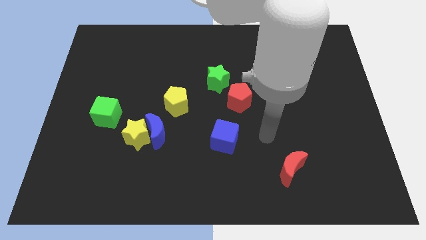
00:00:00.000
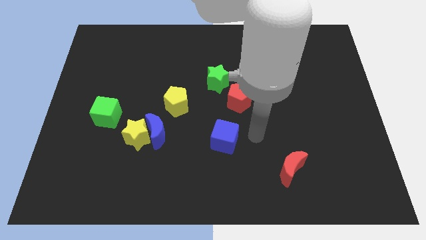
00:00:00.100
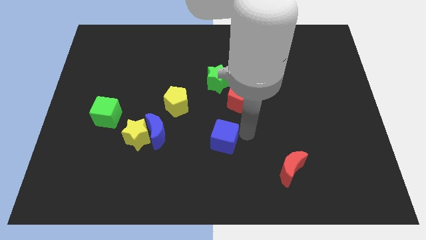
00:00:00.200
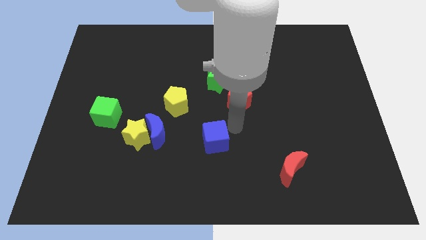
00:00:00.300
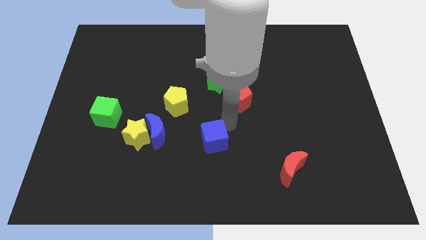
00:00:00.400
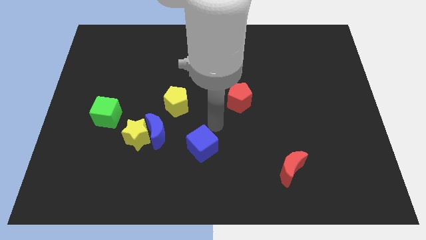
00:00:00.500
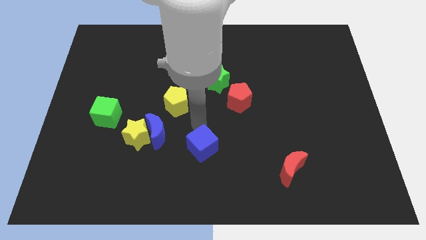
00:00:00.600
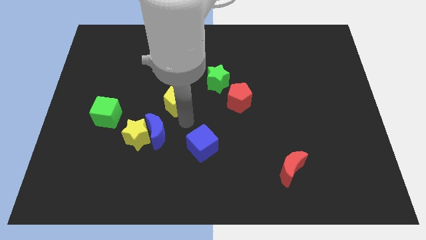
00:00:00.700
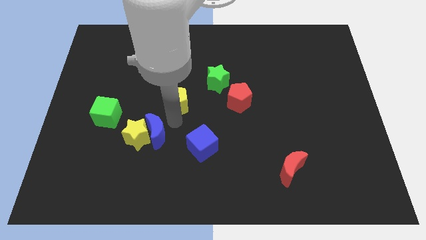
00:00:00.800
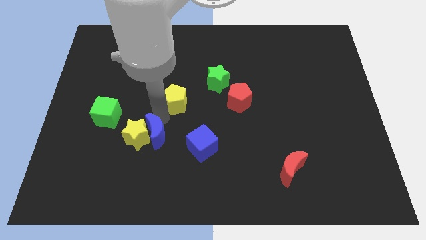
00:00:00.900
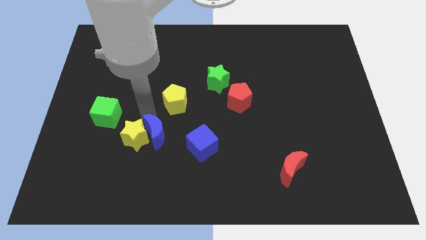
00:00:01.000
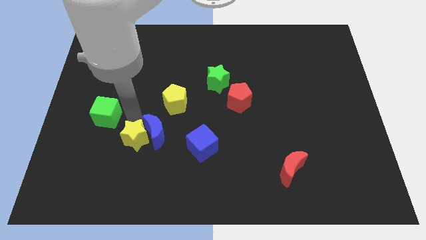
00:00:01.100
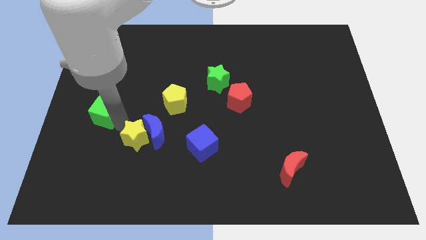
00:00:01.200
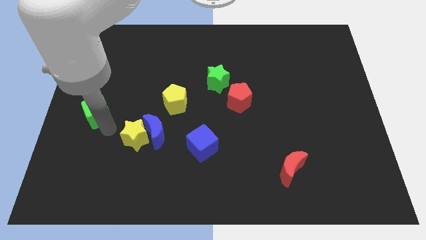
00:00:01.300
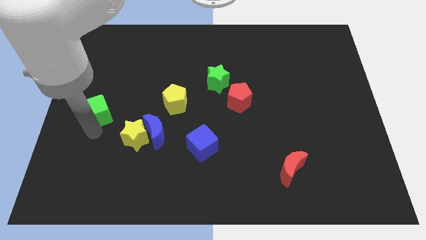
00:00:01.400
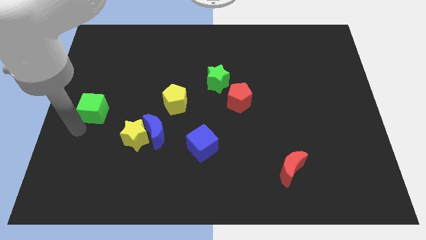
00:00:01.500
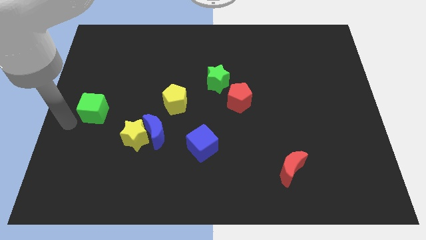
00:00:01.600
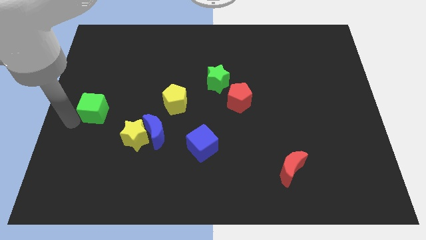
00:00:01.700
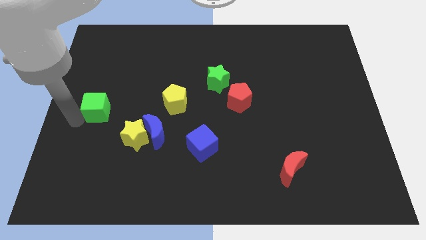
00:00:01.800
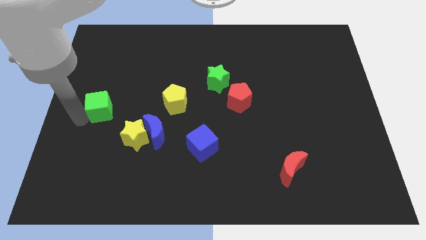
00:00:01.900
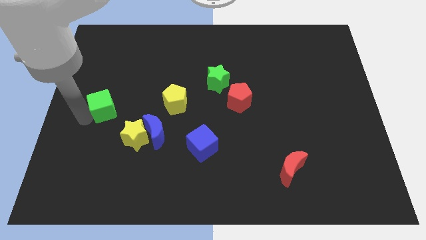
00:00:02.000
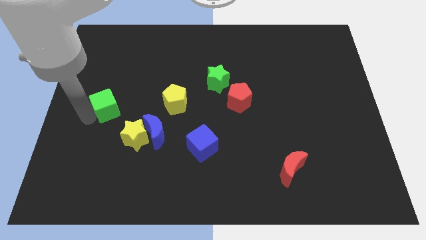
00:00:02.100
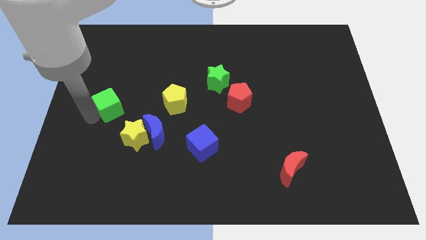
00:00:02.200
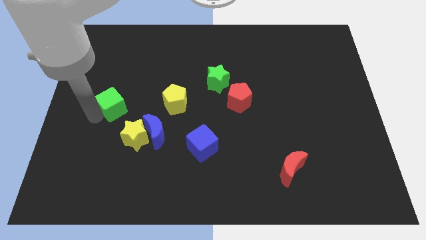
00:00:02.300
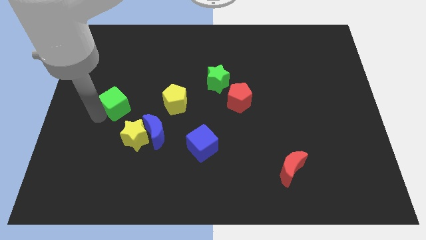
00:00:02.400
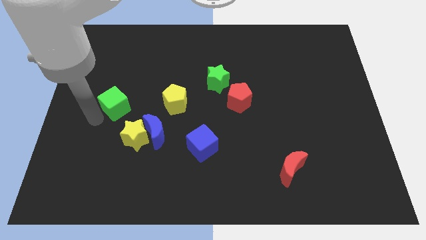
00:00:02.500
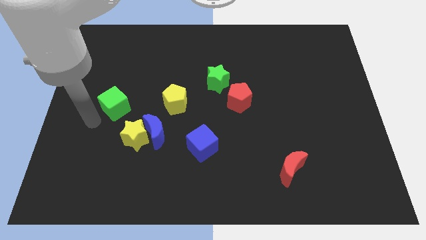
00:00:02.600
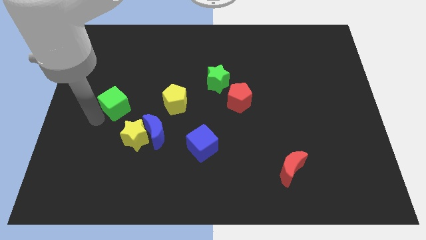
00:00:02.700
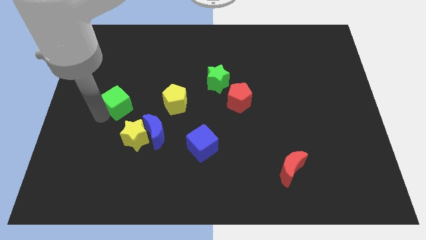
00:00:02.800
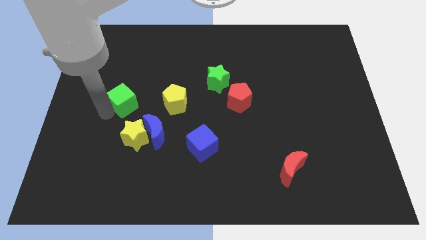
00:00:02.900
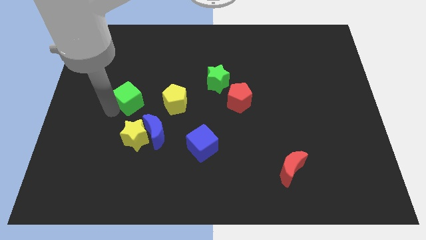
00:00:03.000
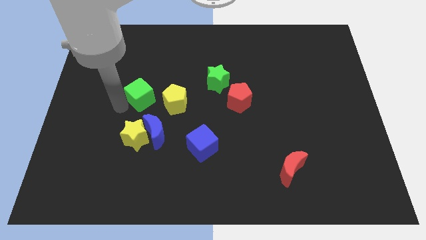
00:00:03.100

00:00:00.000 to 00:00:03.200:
slide the green cube slightly up and right

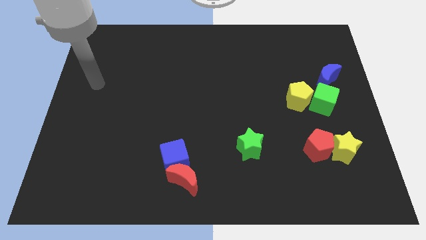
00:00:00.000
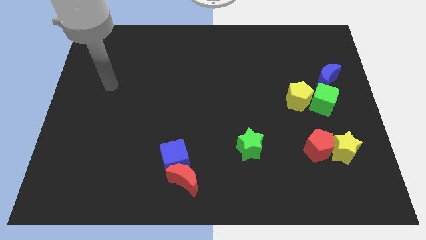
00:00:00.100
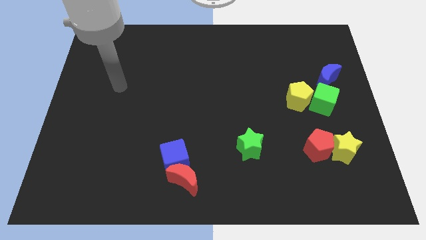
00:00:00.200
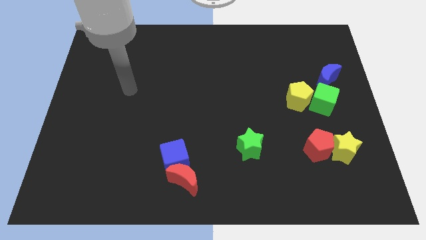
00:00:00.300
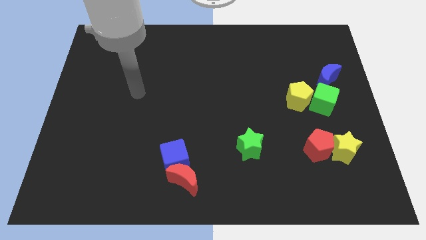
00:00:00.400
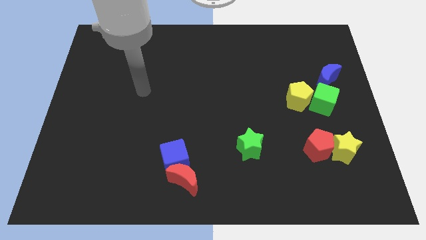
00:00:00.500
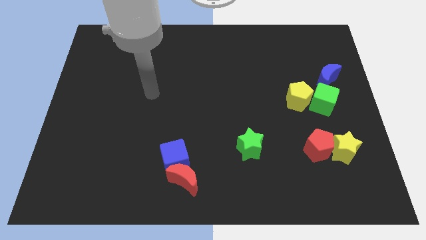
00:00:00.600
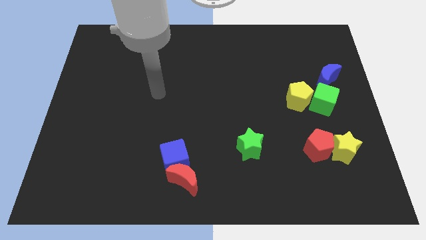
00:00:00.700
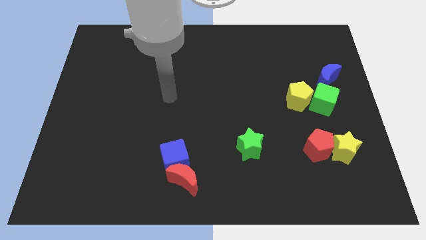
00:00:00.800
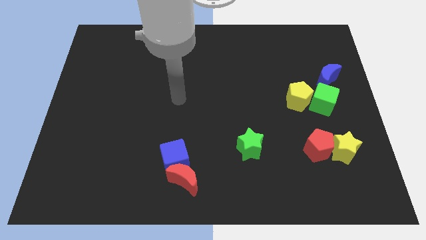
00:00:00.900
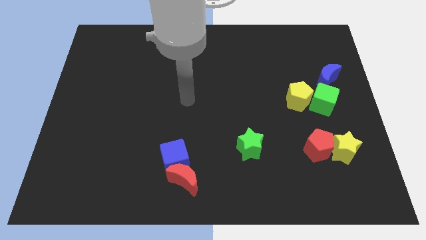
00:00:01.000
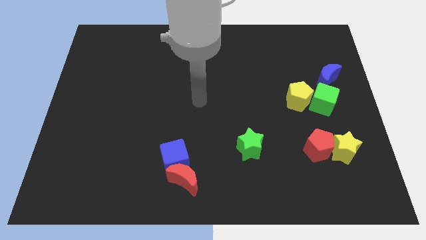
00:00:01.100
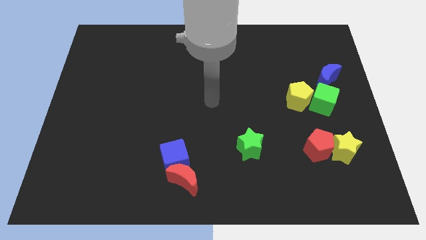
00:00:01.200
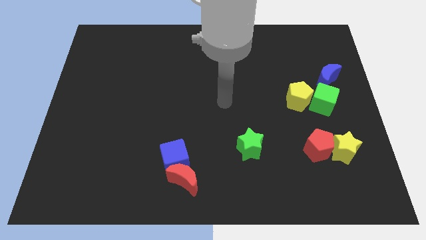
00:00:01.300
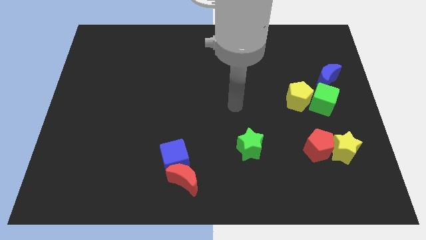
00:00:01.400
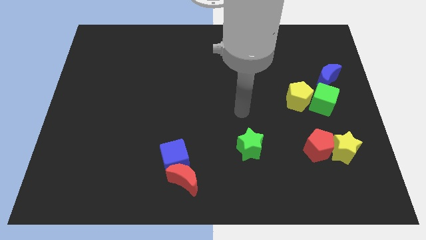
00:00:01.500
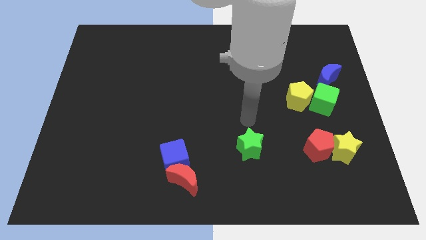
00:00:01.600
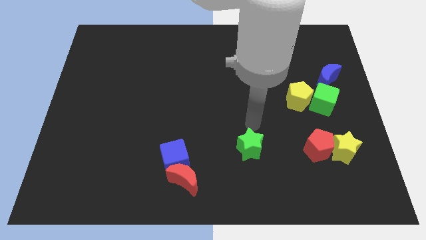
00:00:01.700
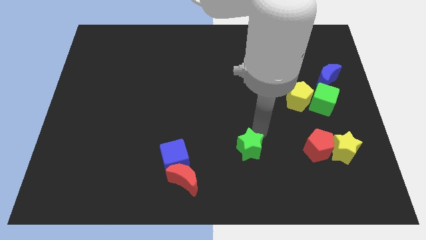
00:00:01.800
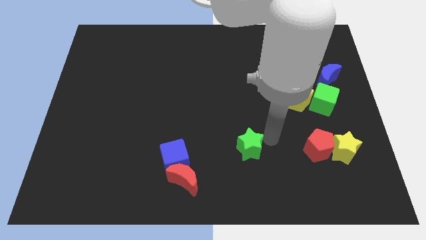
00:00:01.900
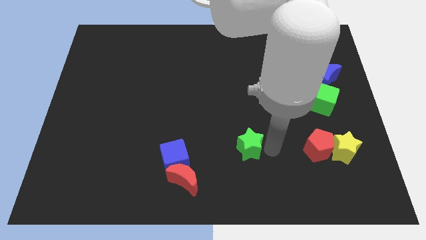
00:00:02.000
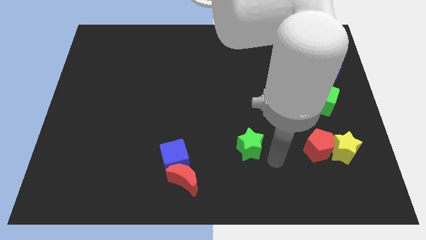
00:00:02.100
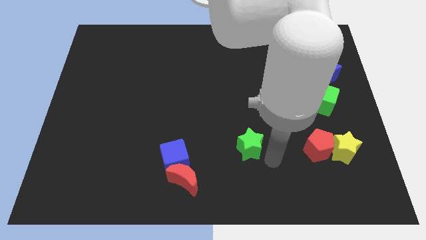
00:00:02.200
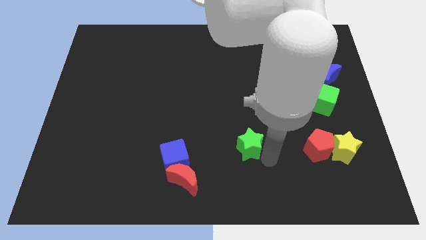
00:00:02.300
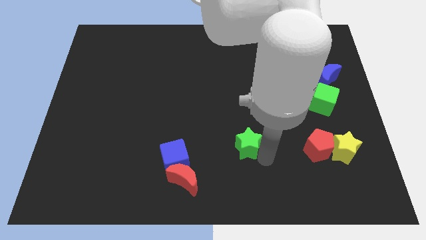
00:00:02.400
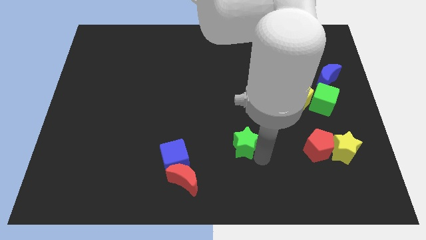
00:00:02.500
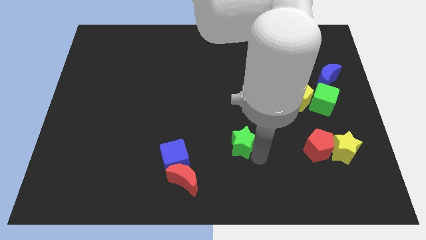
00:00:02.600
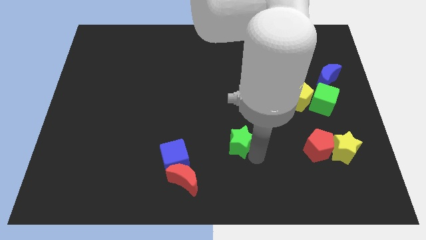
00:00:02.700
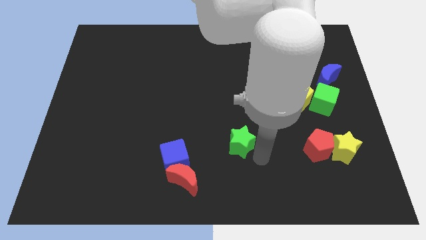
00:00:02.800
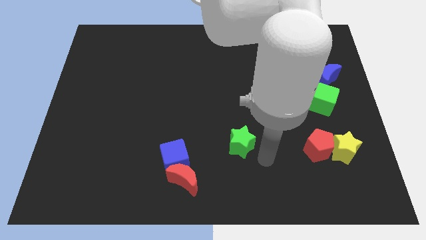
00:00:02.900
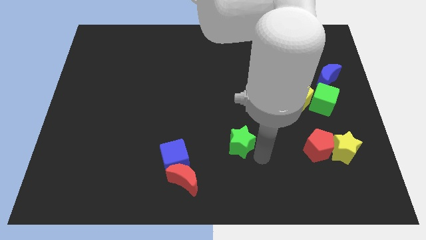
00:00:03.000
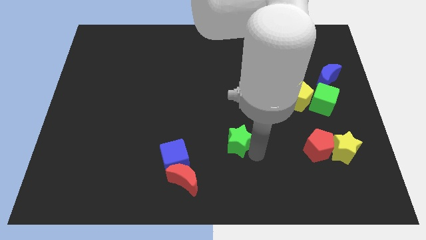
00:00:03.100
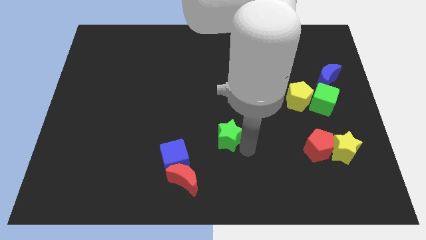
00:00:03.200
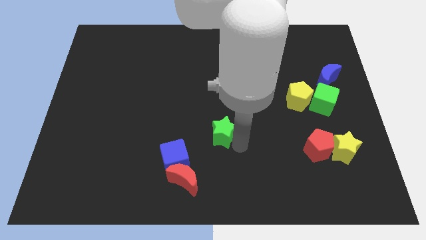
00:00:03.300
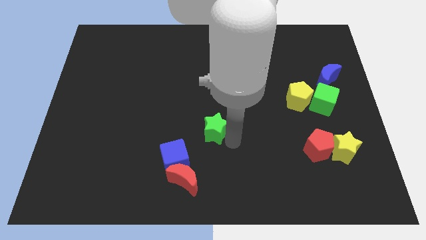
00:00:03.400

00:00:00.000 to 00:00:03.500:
slide the green star slightly upwards and left

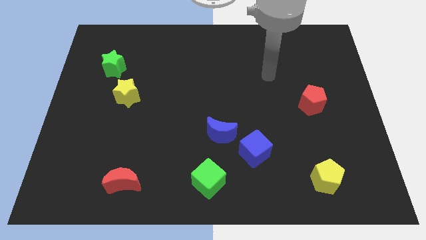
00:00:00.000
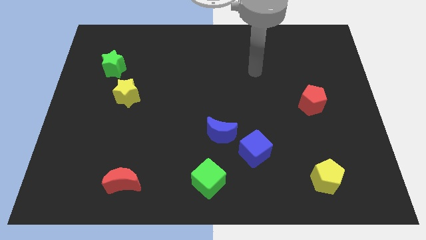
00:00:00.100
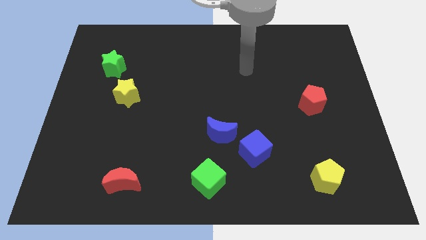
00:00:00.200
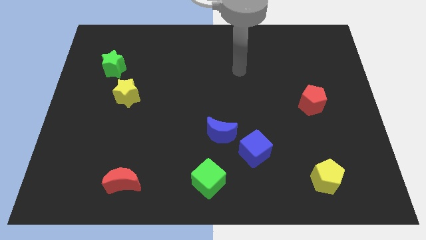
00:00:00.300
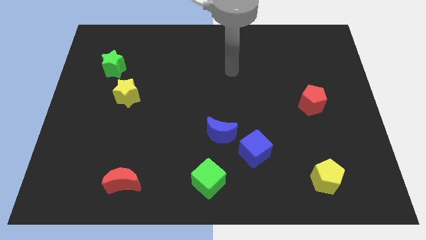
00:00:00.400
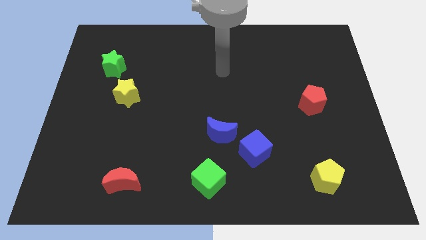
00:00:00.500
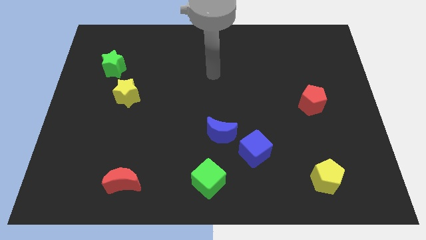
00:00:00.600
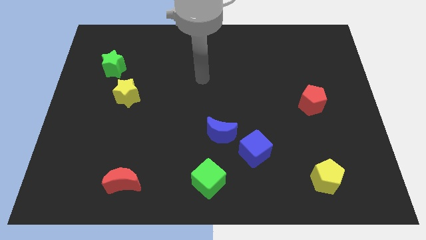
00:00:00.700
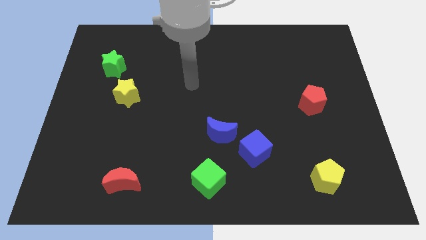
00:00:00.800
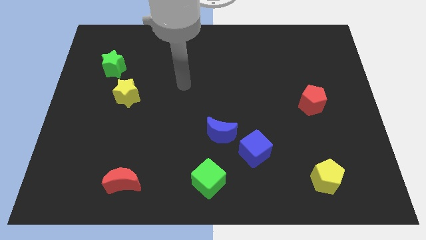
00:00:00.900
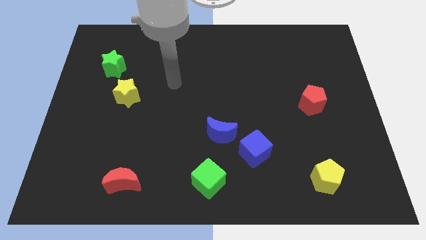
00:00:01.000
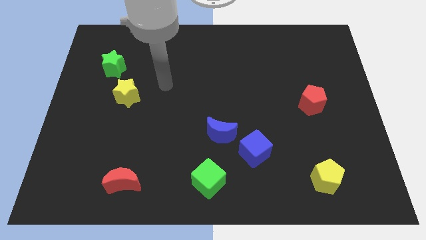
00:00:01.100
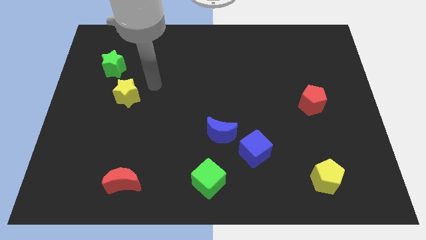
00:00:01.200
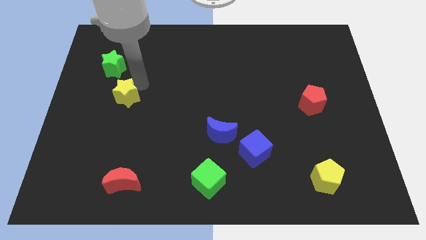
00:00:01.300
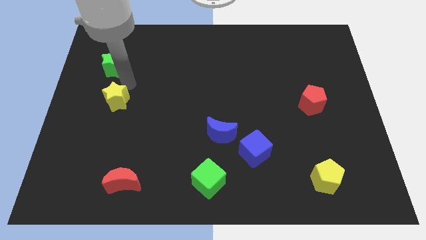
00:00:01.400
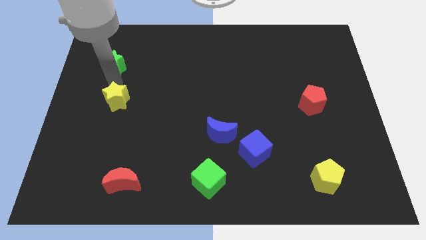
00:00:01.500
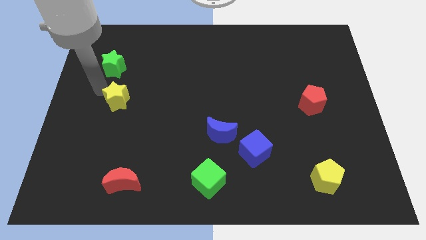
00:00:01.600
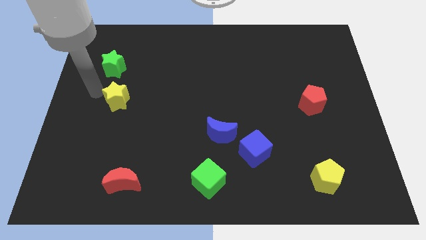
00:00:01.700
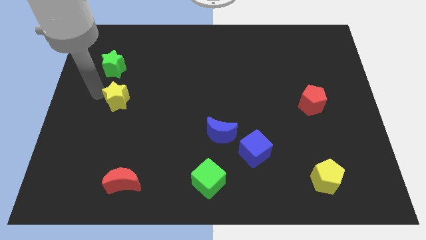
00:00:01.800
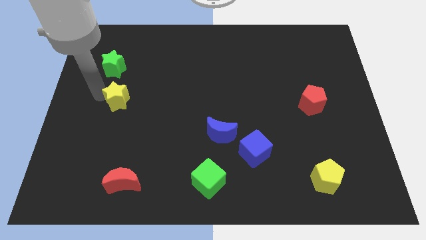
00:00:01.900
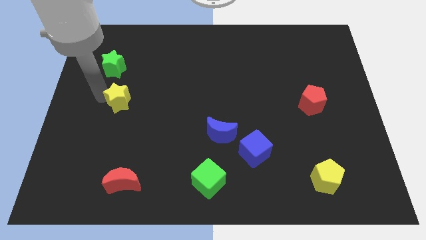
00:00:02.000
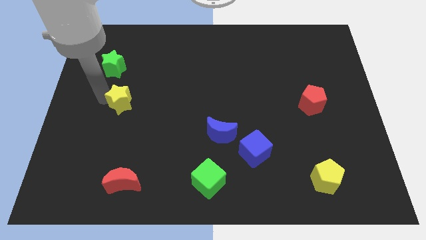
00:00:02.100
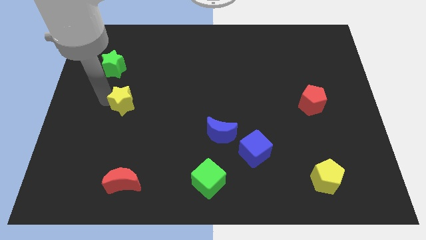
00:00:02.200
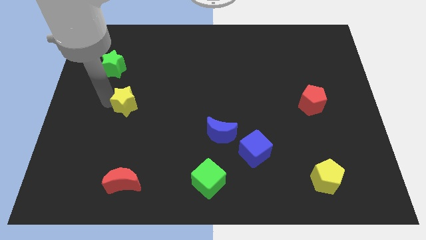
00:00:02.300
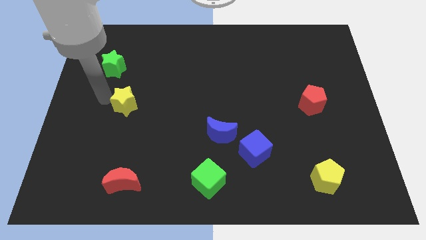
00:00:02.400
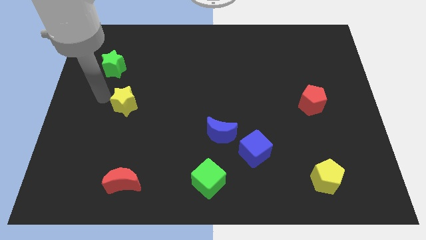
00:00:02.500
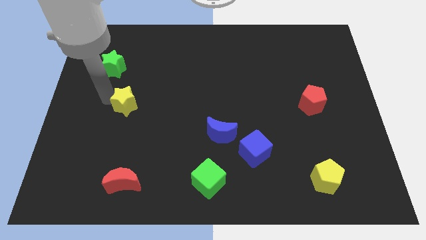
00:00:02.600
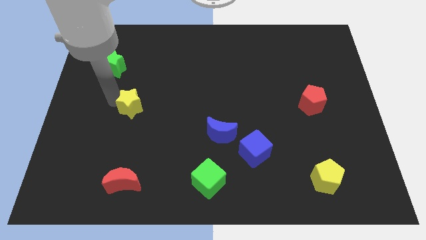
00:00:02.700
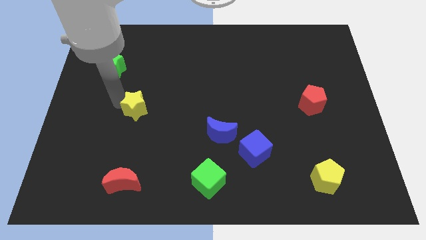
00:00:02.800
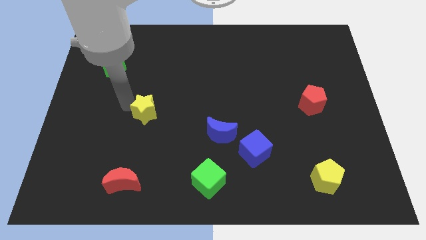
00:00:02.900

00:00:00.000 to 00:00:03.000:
move the yellow star a bit downwards and right
